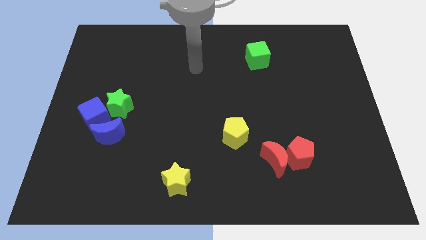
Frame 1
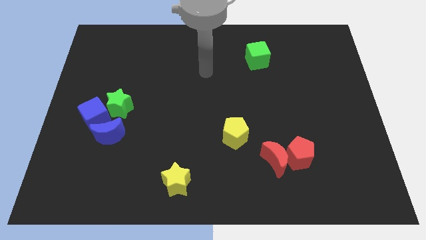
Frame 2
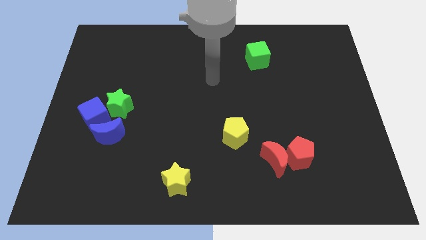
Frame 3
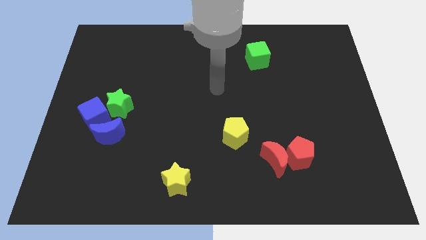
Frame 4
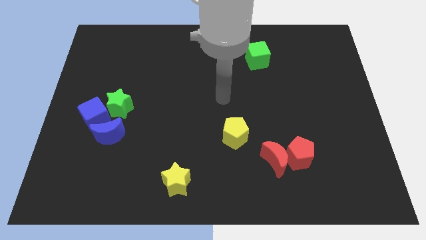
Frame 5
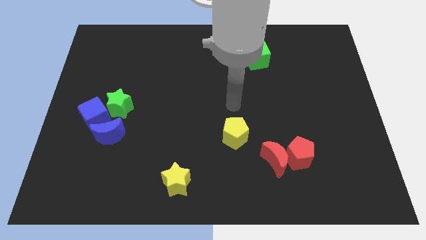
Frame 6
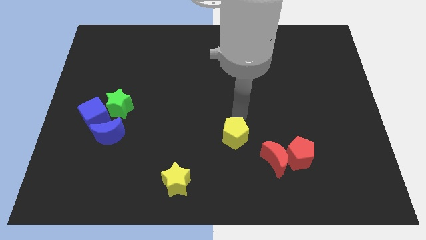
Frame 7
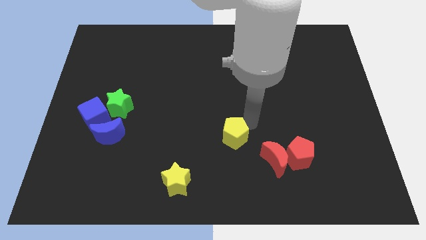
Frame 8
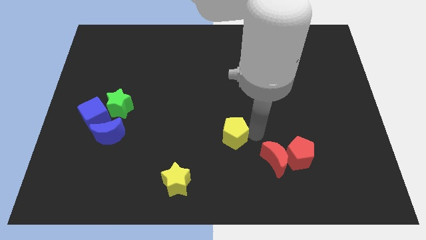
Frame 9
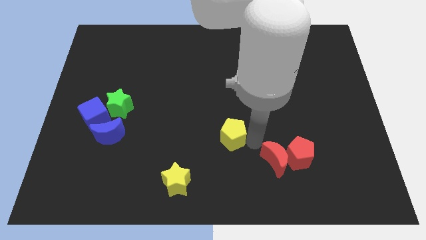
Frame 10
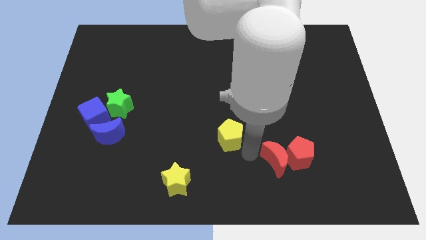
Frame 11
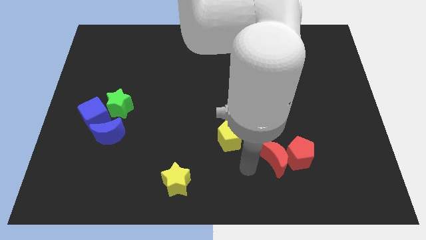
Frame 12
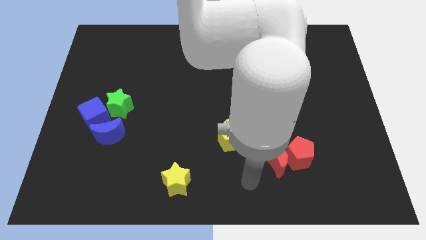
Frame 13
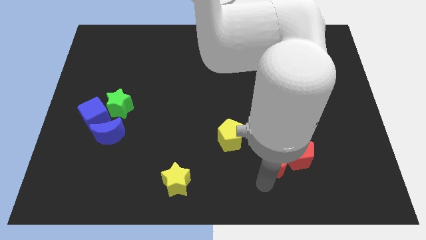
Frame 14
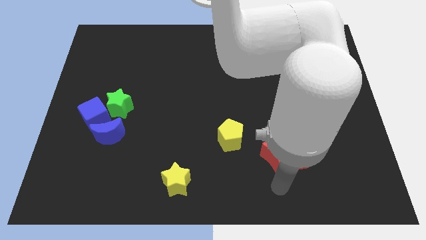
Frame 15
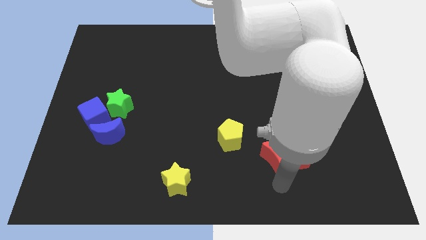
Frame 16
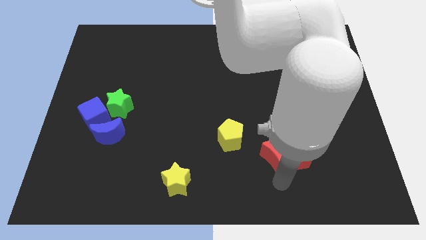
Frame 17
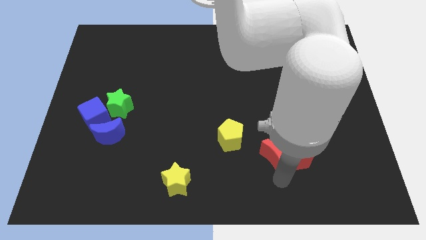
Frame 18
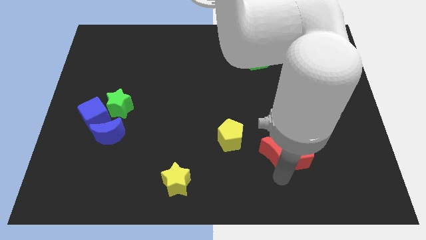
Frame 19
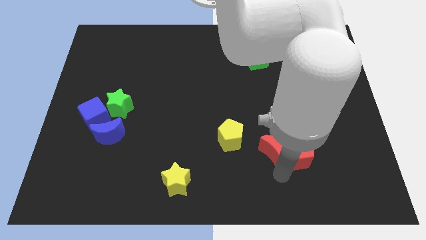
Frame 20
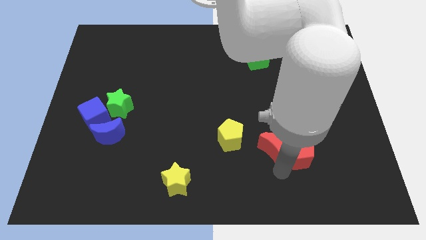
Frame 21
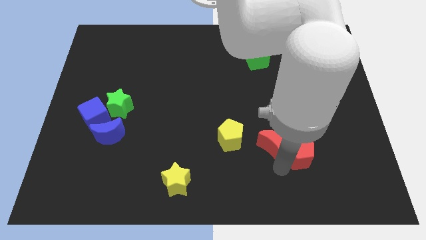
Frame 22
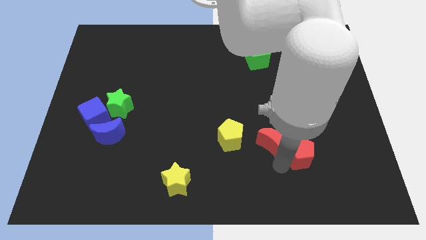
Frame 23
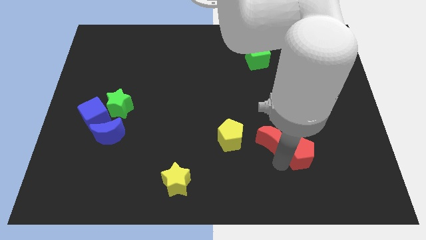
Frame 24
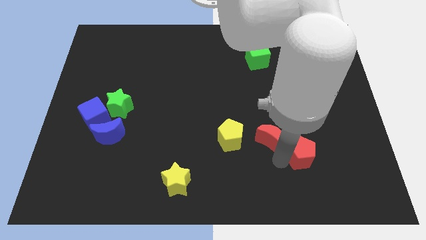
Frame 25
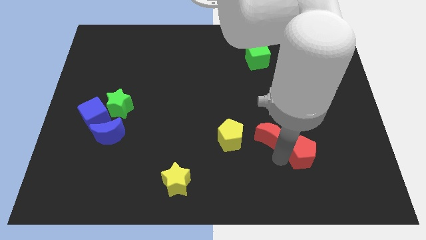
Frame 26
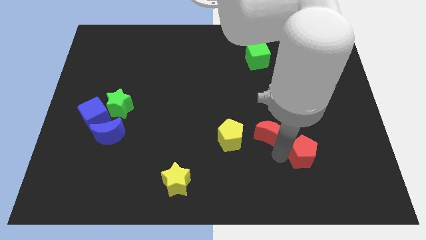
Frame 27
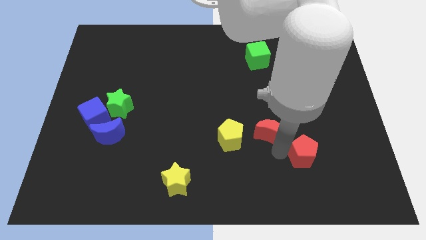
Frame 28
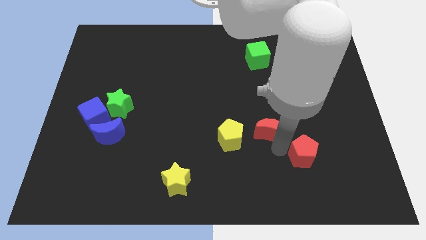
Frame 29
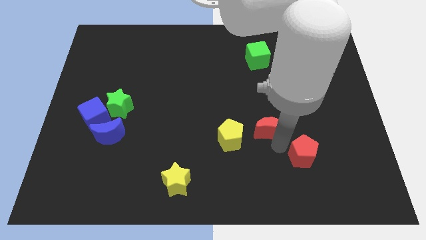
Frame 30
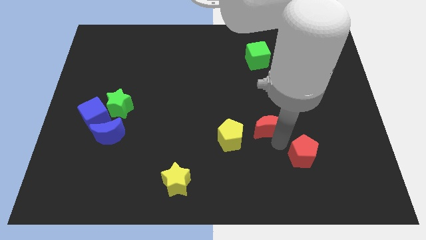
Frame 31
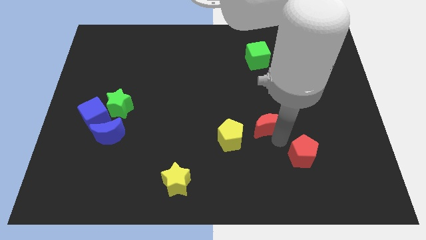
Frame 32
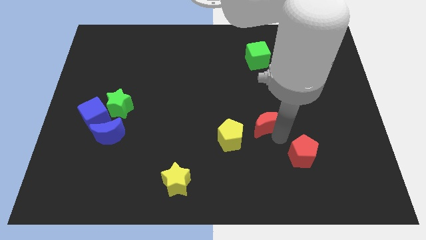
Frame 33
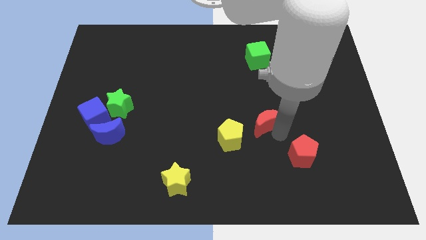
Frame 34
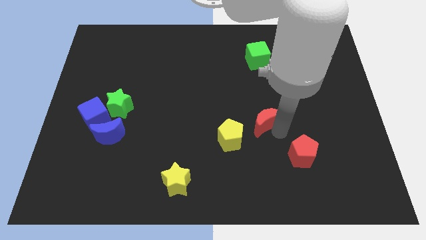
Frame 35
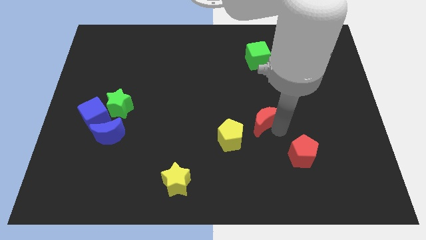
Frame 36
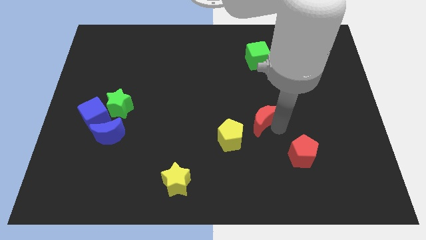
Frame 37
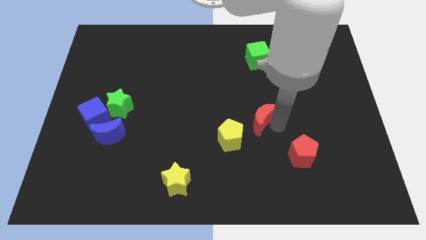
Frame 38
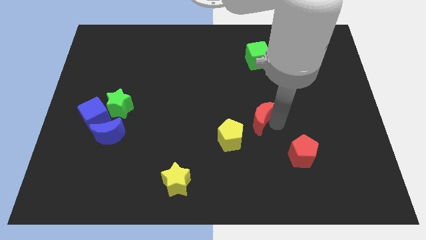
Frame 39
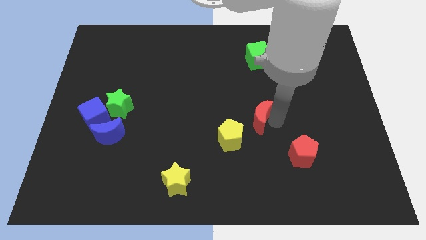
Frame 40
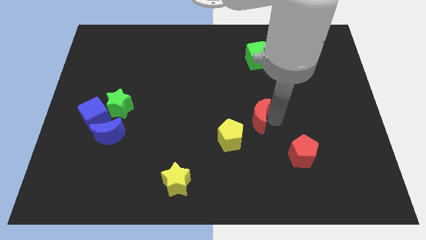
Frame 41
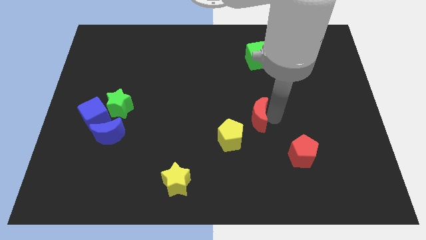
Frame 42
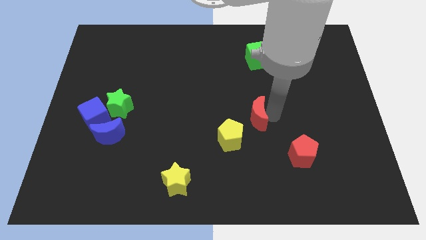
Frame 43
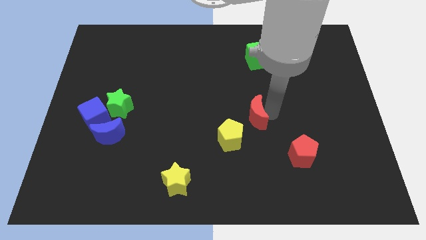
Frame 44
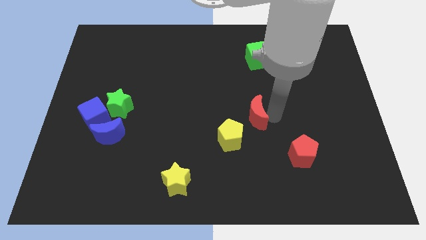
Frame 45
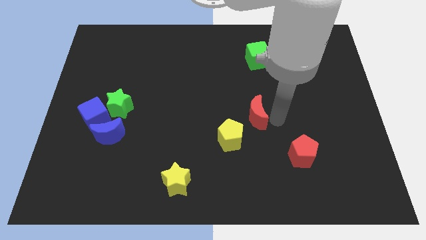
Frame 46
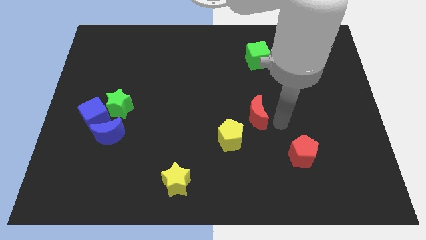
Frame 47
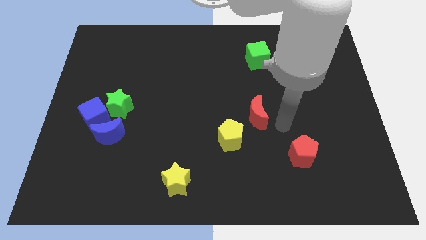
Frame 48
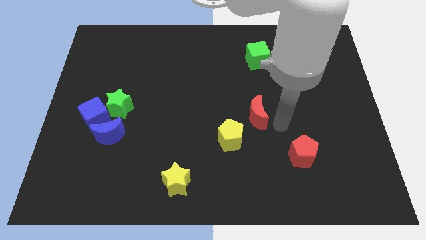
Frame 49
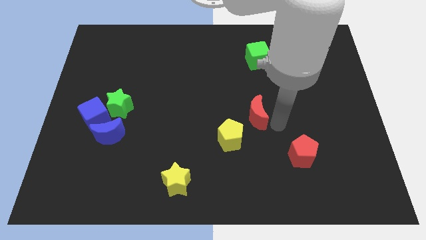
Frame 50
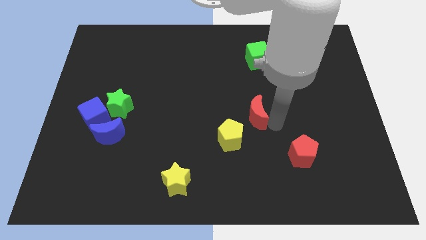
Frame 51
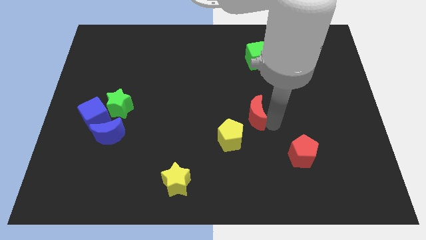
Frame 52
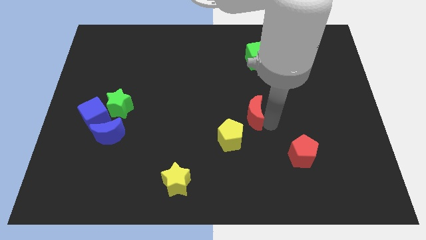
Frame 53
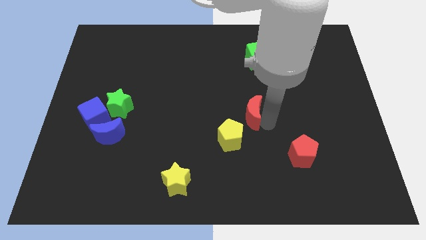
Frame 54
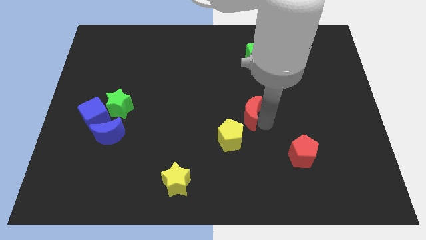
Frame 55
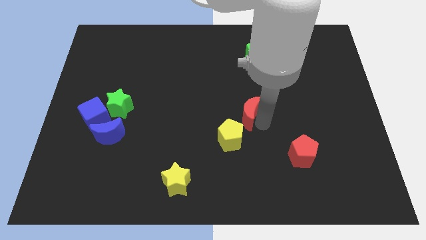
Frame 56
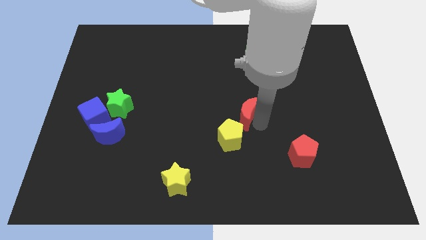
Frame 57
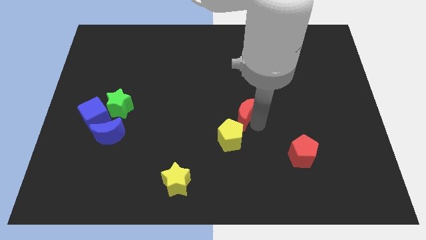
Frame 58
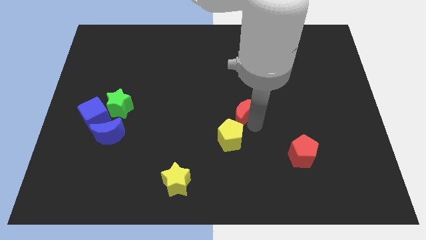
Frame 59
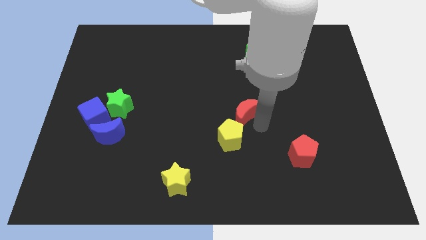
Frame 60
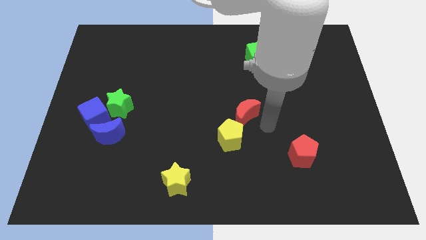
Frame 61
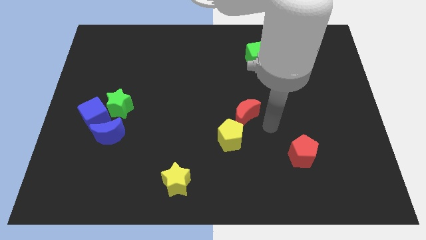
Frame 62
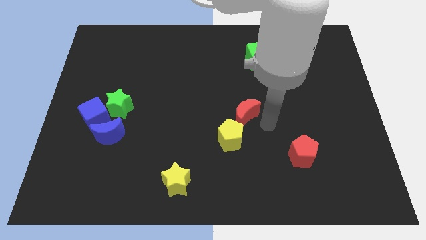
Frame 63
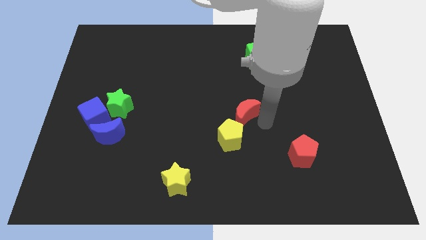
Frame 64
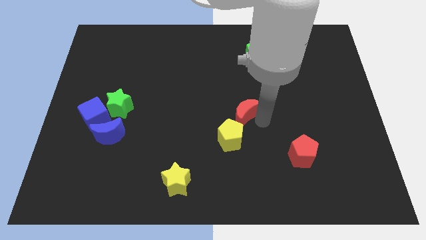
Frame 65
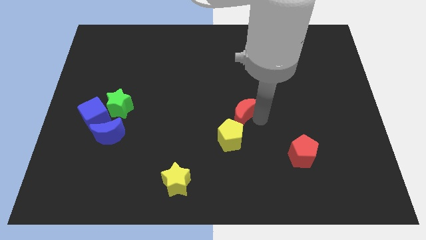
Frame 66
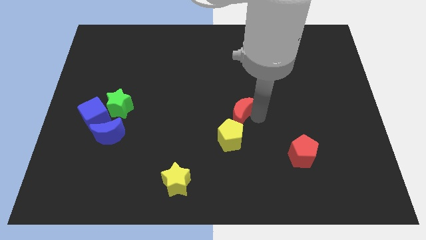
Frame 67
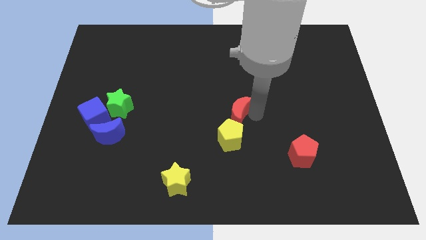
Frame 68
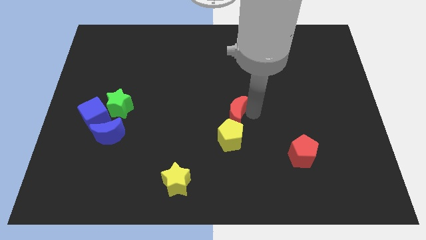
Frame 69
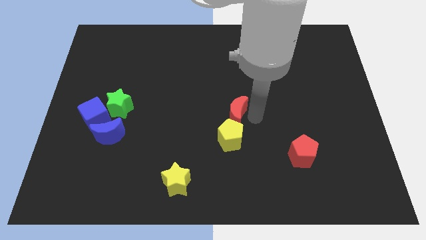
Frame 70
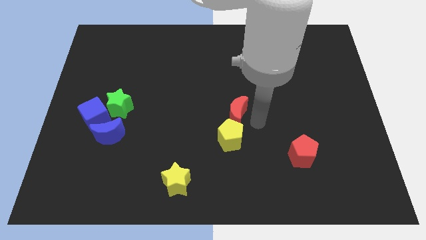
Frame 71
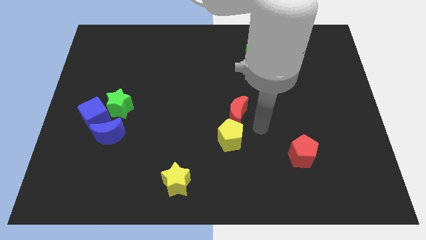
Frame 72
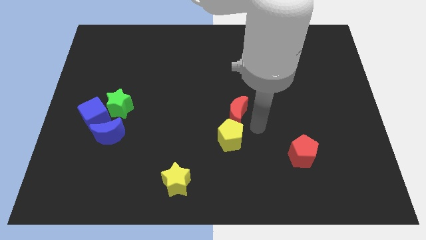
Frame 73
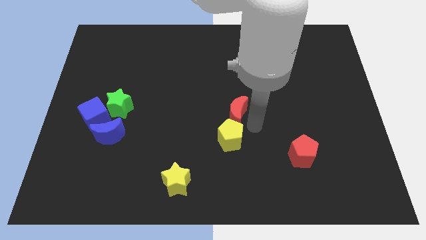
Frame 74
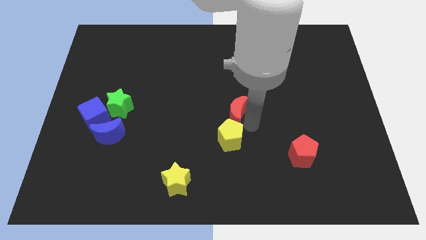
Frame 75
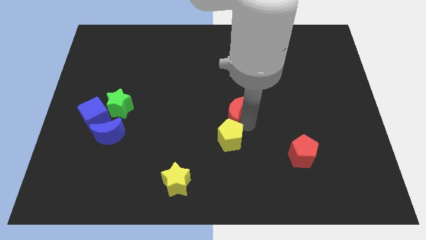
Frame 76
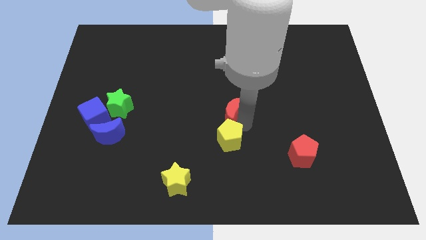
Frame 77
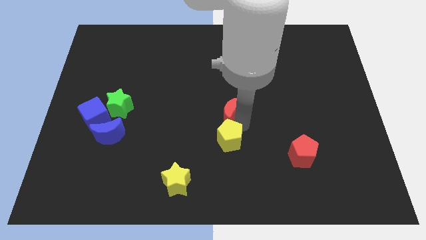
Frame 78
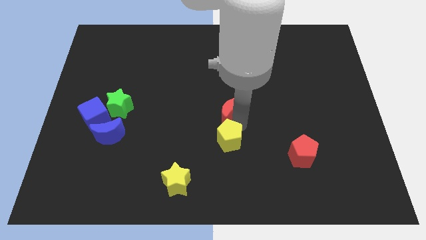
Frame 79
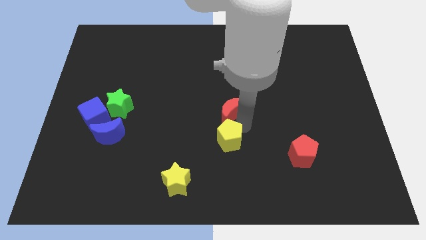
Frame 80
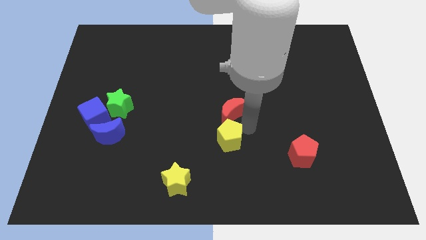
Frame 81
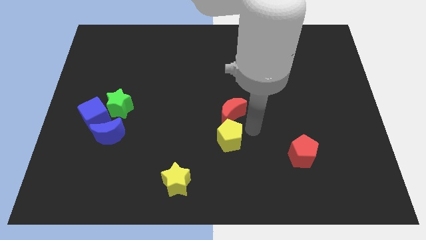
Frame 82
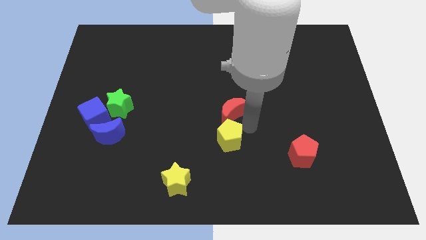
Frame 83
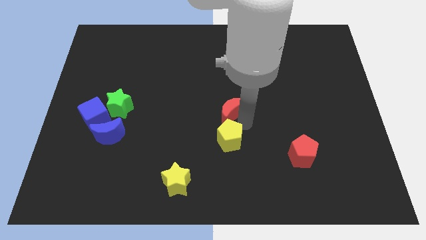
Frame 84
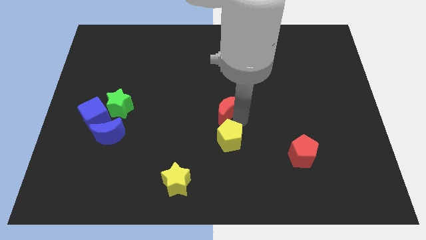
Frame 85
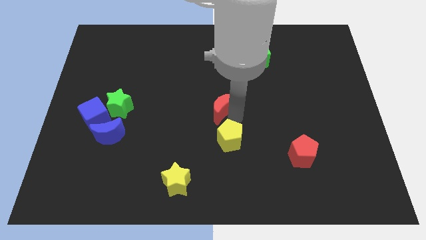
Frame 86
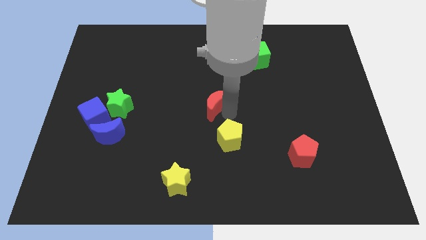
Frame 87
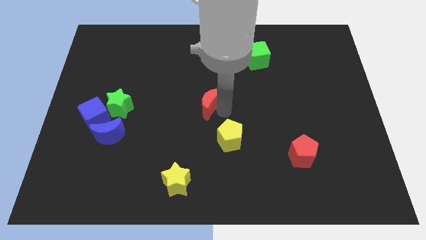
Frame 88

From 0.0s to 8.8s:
push the red moon upwards and left
